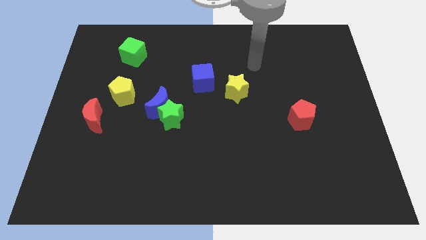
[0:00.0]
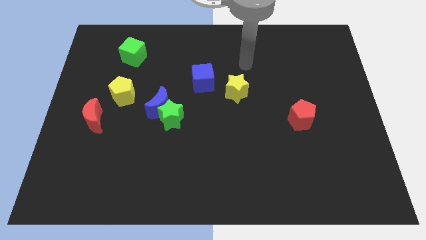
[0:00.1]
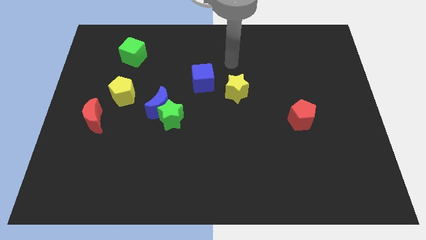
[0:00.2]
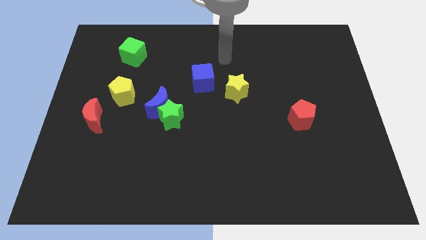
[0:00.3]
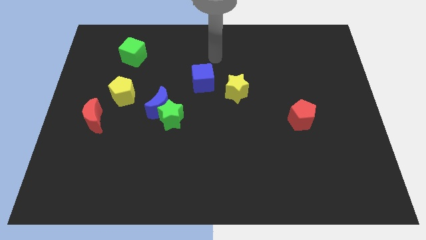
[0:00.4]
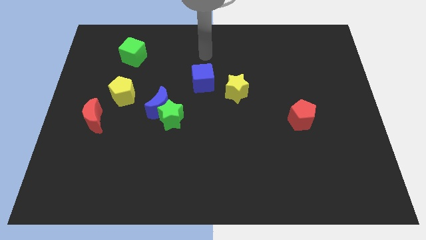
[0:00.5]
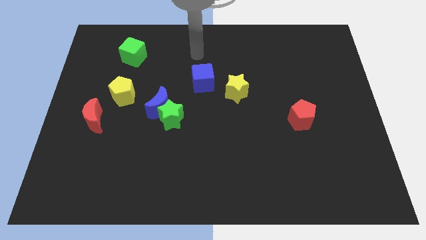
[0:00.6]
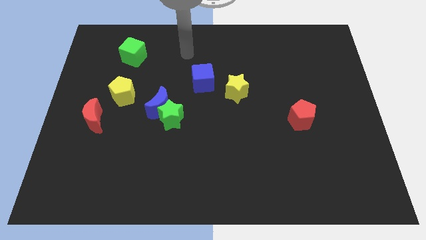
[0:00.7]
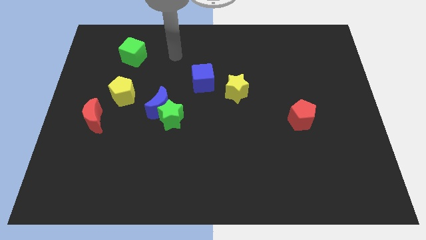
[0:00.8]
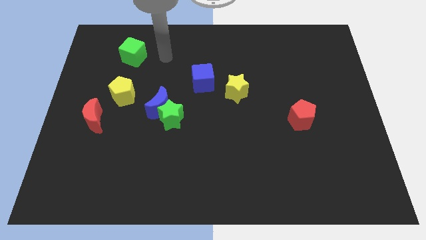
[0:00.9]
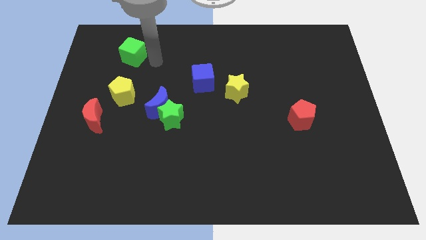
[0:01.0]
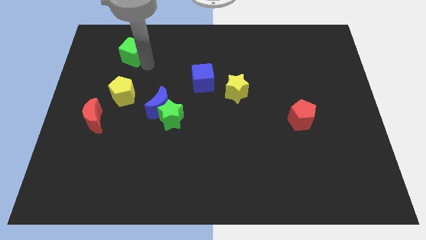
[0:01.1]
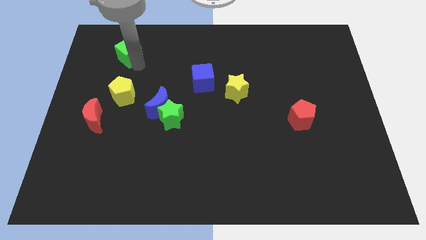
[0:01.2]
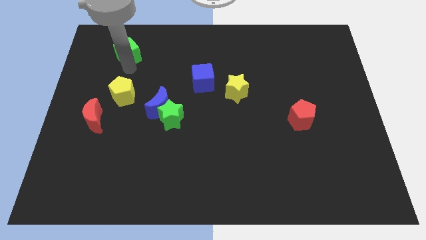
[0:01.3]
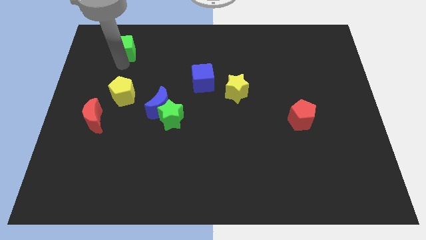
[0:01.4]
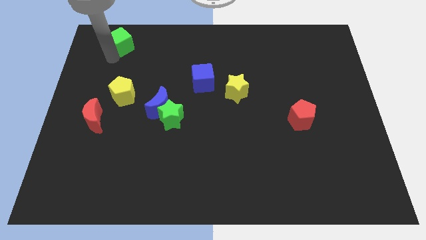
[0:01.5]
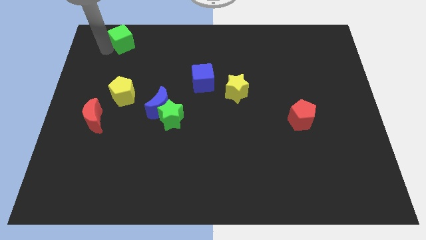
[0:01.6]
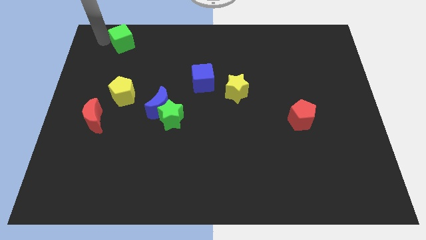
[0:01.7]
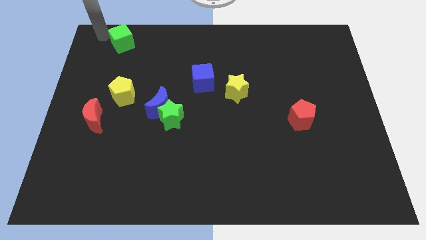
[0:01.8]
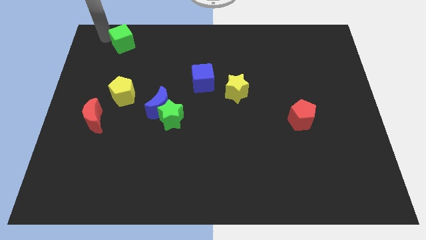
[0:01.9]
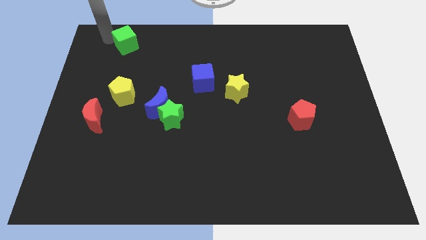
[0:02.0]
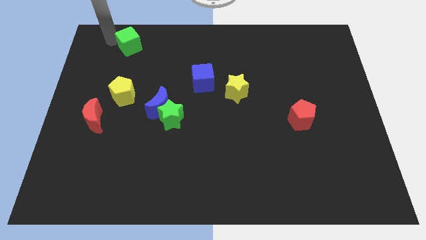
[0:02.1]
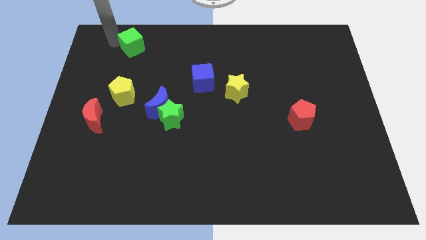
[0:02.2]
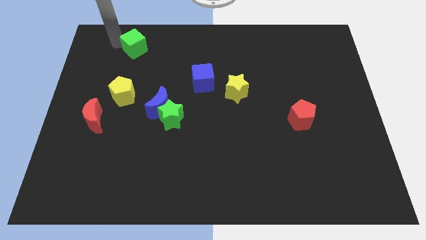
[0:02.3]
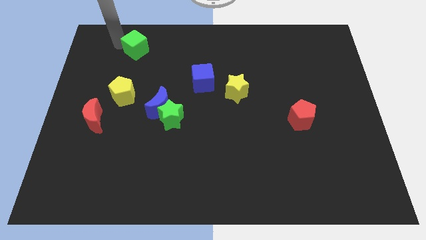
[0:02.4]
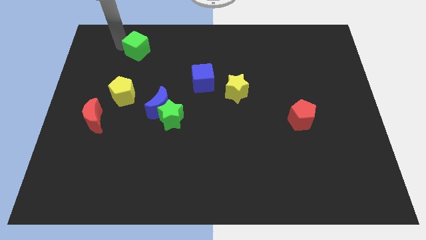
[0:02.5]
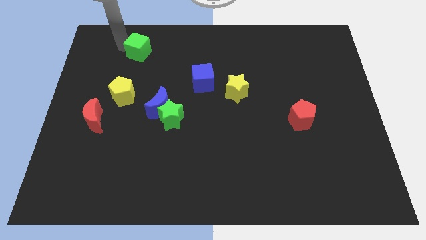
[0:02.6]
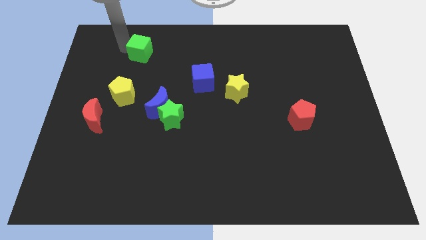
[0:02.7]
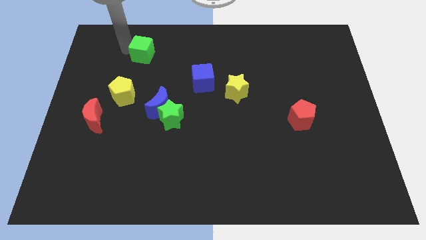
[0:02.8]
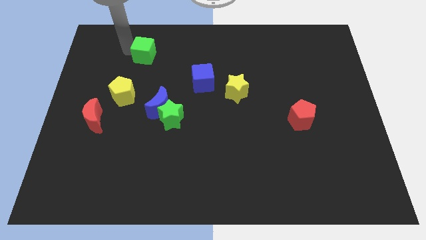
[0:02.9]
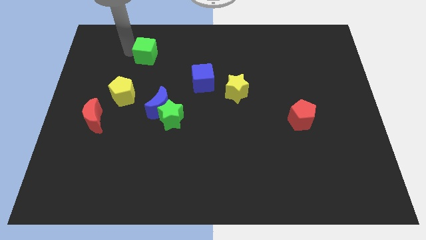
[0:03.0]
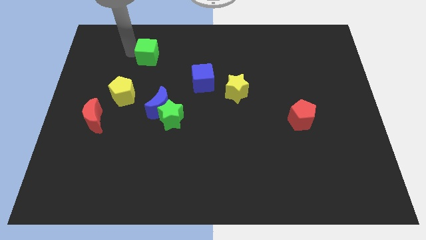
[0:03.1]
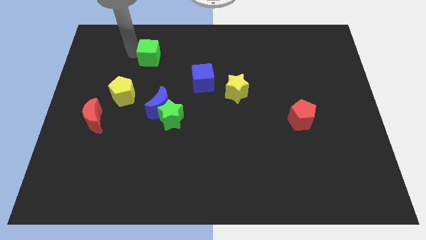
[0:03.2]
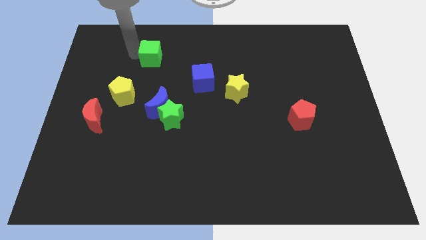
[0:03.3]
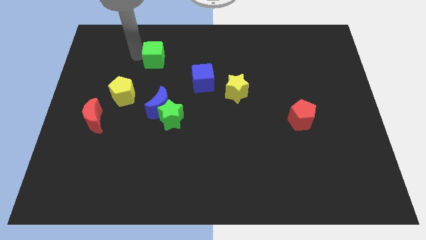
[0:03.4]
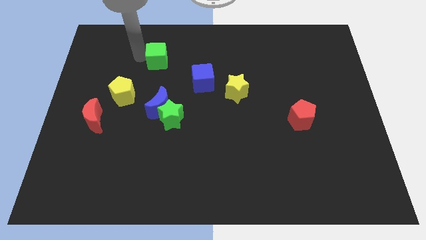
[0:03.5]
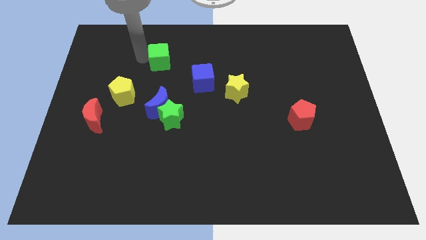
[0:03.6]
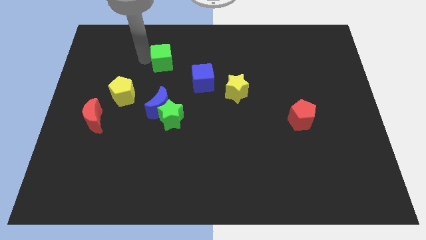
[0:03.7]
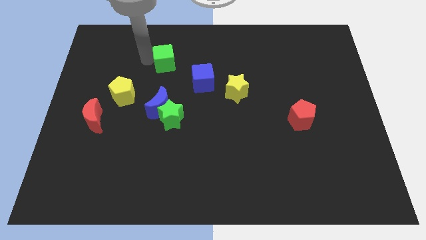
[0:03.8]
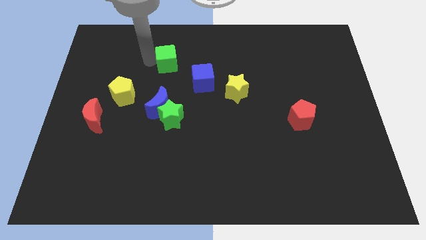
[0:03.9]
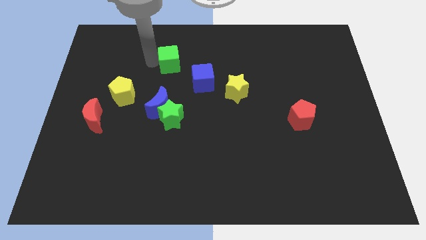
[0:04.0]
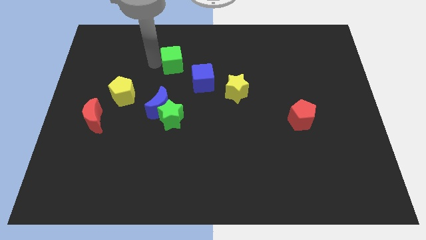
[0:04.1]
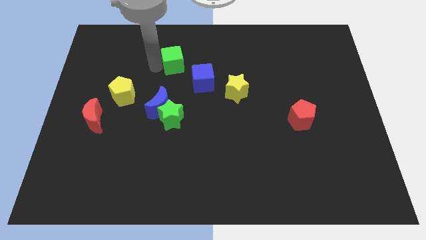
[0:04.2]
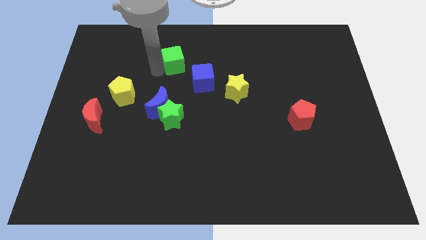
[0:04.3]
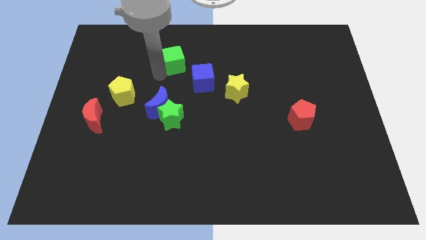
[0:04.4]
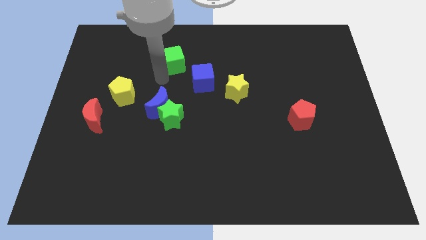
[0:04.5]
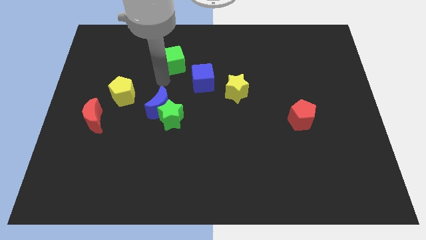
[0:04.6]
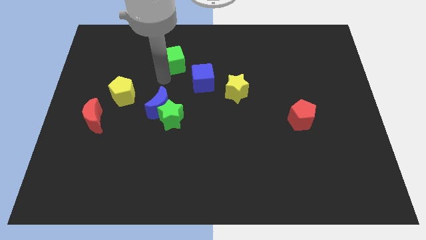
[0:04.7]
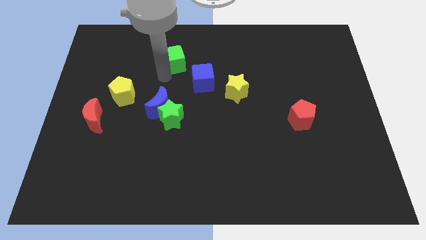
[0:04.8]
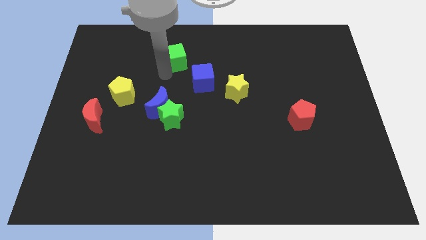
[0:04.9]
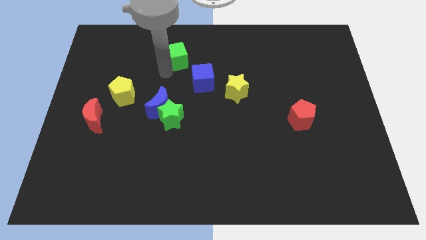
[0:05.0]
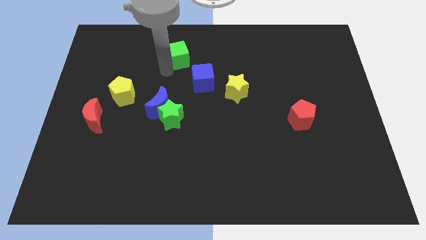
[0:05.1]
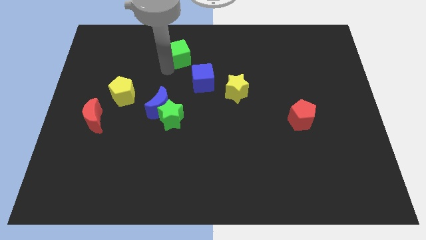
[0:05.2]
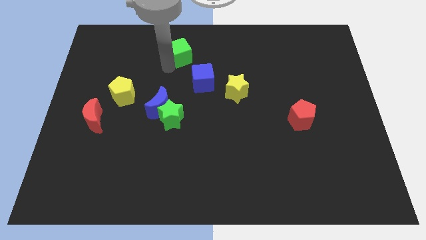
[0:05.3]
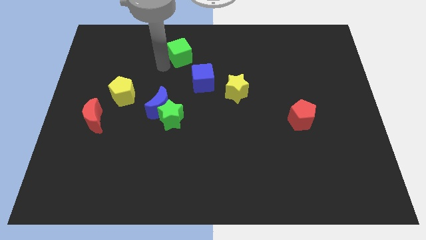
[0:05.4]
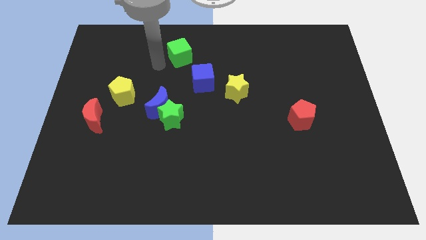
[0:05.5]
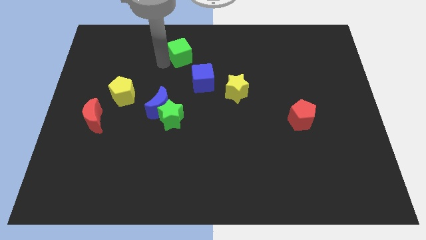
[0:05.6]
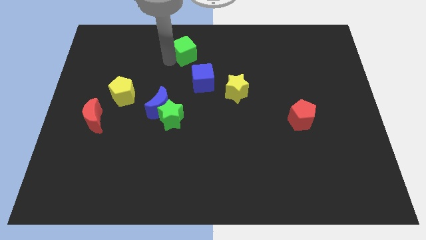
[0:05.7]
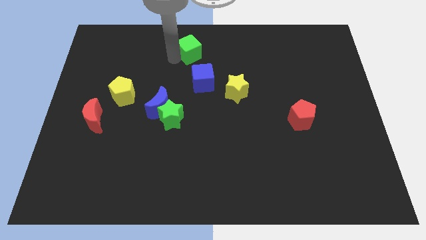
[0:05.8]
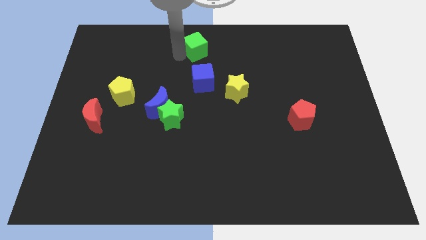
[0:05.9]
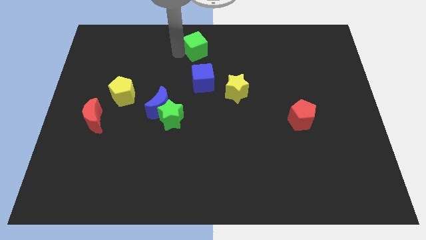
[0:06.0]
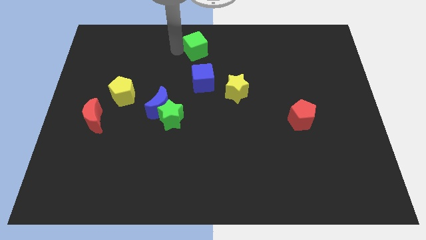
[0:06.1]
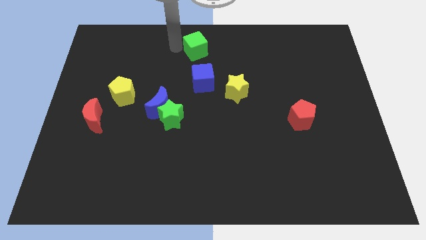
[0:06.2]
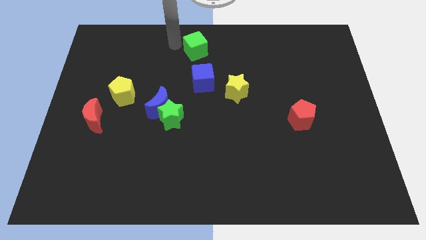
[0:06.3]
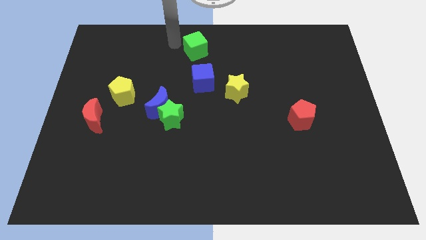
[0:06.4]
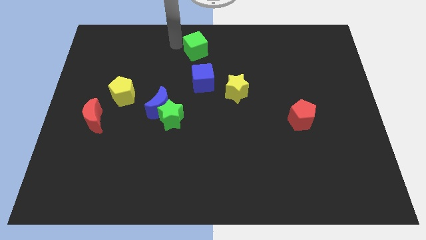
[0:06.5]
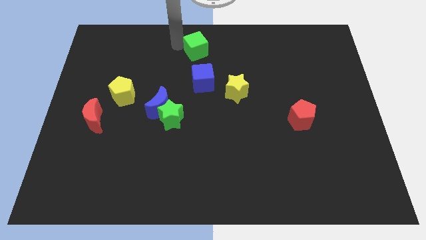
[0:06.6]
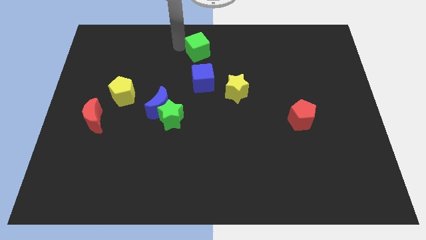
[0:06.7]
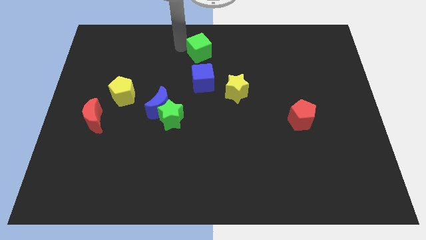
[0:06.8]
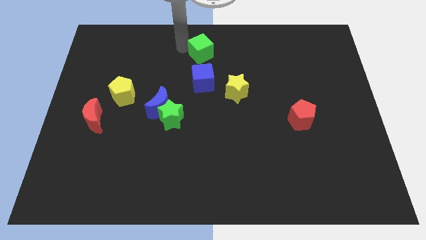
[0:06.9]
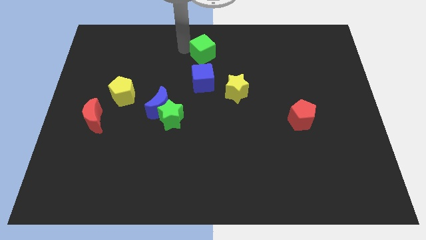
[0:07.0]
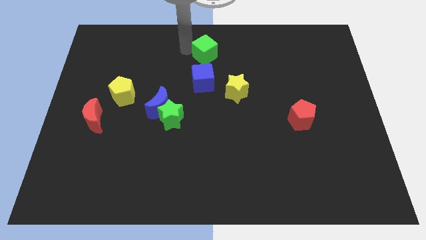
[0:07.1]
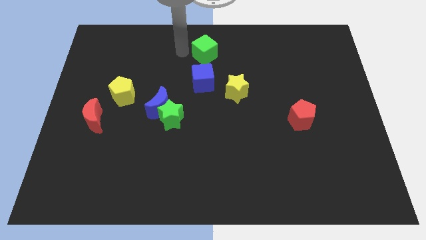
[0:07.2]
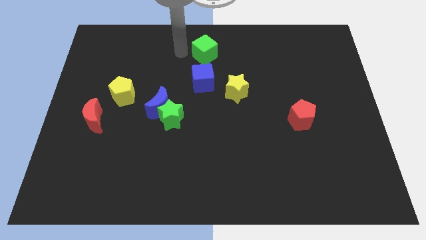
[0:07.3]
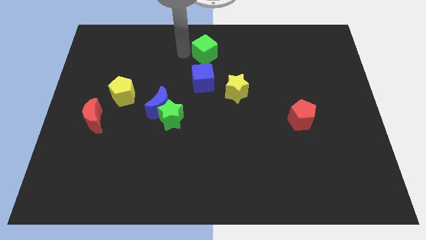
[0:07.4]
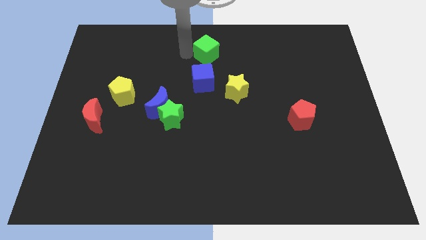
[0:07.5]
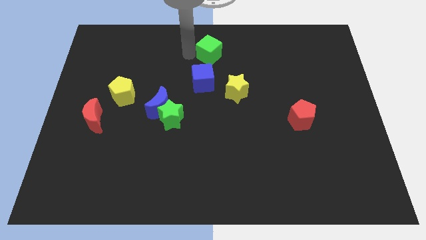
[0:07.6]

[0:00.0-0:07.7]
move the green cube right

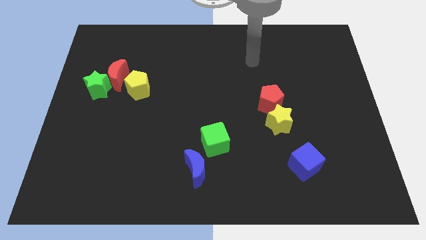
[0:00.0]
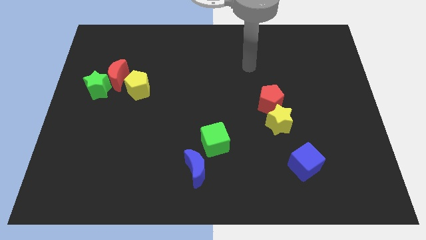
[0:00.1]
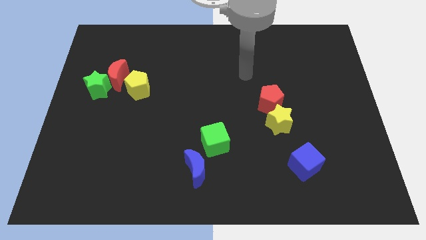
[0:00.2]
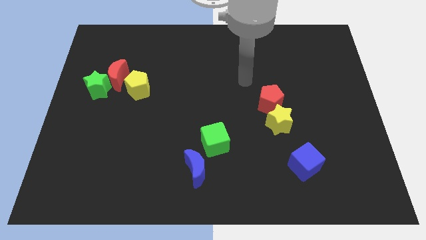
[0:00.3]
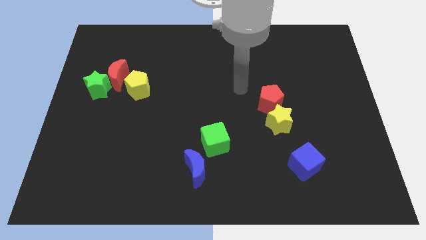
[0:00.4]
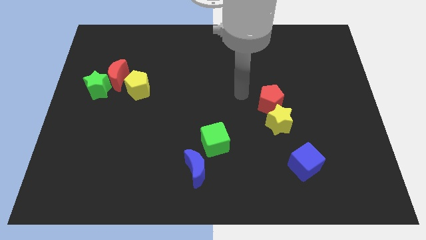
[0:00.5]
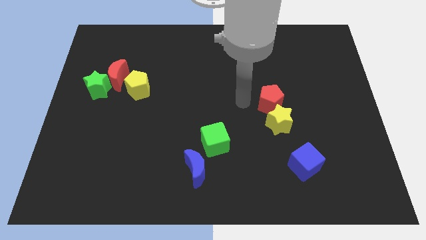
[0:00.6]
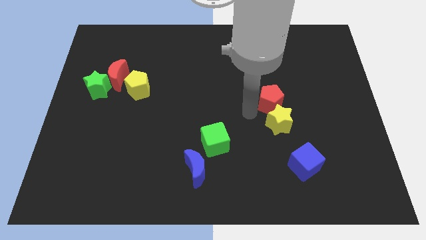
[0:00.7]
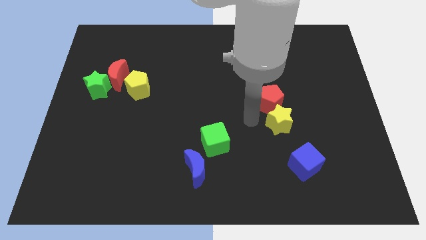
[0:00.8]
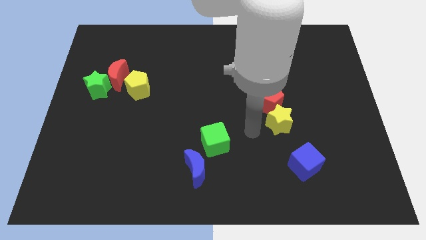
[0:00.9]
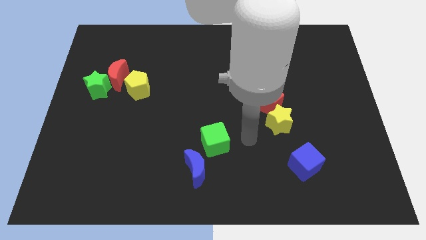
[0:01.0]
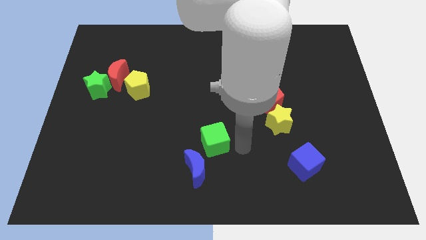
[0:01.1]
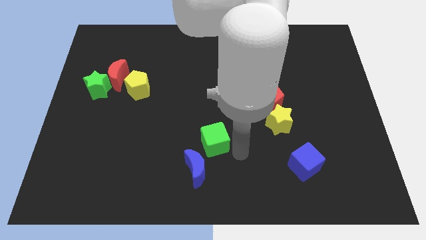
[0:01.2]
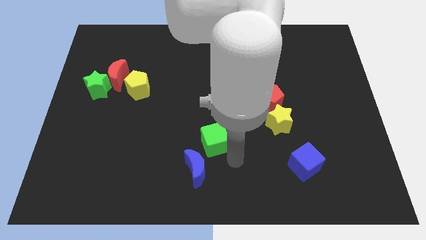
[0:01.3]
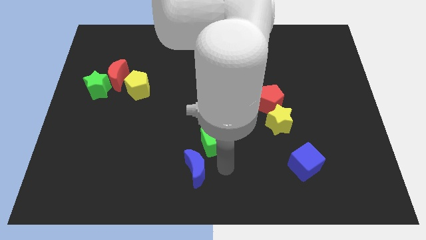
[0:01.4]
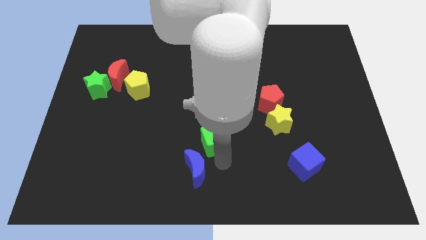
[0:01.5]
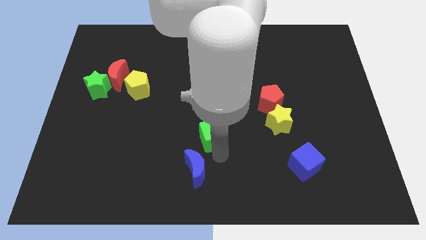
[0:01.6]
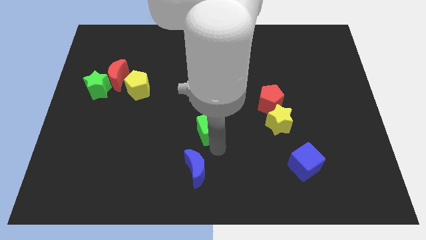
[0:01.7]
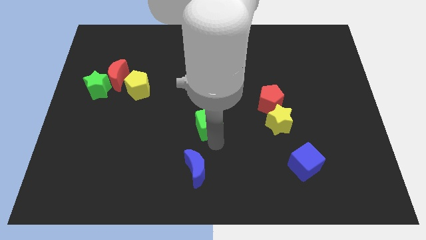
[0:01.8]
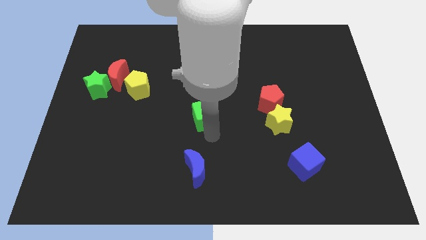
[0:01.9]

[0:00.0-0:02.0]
push the green cube a little upwards
